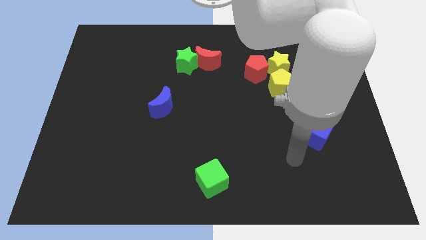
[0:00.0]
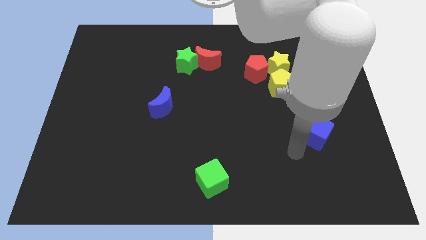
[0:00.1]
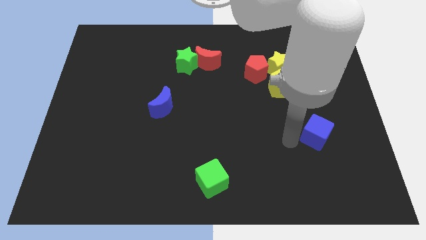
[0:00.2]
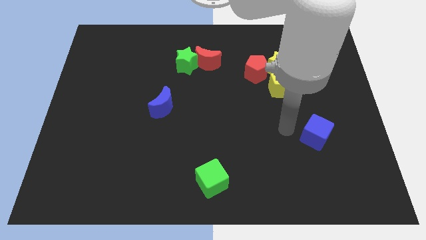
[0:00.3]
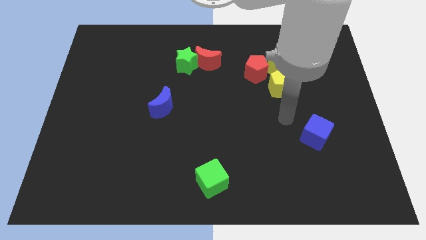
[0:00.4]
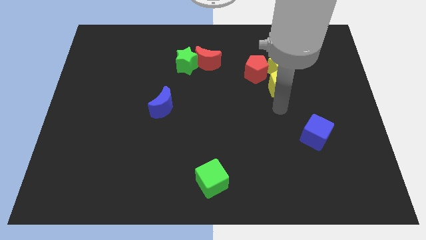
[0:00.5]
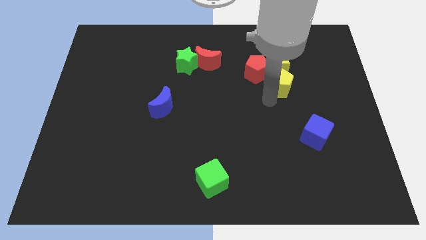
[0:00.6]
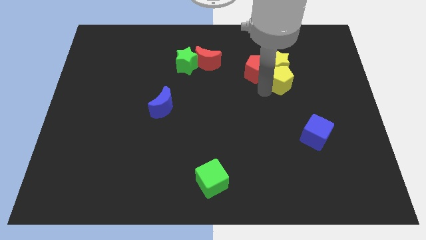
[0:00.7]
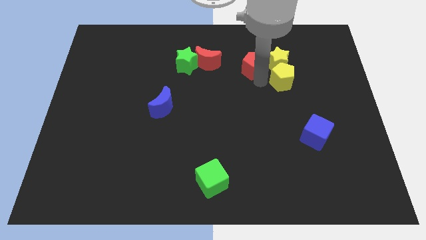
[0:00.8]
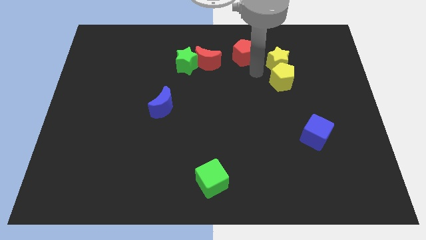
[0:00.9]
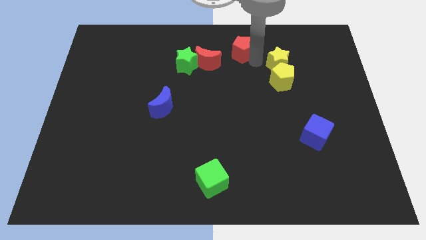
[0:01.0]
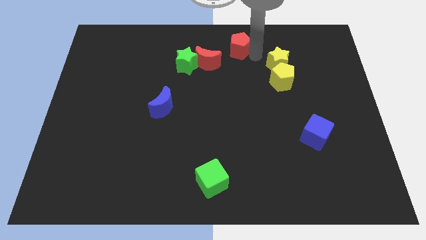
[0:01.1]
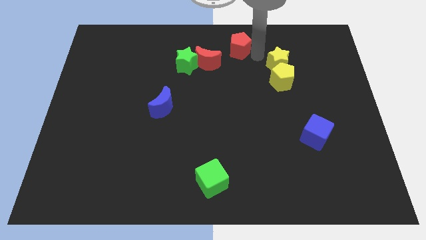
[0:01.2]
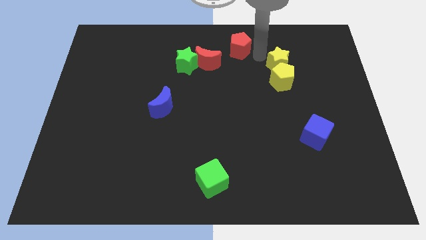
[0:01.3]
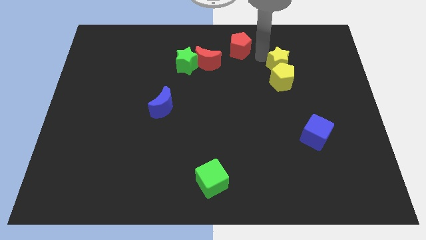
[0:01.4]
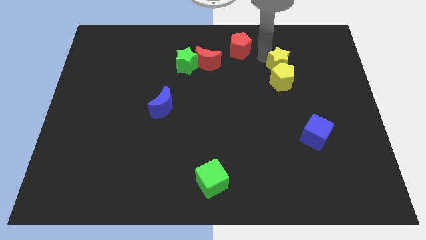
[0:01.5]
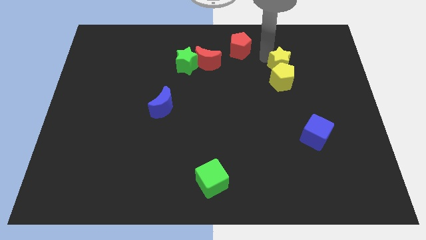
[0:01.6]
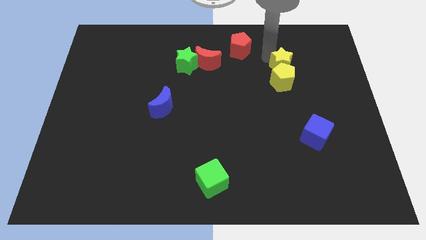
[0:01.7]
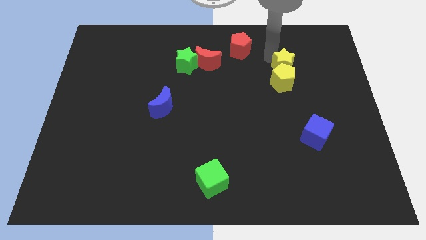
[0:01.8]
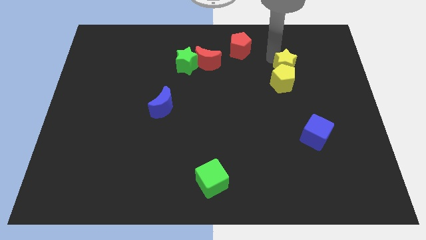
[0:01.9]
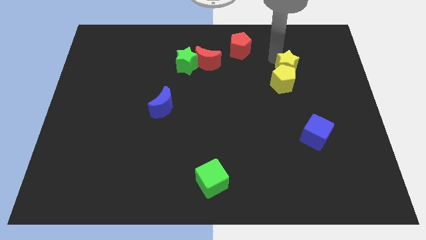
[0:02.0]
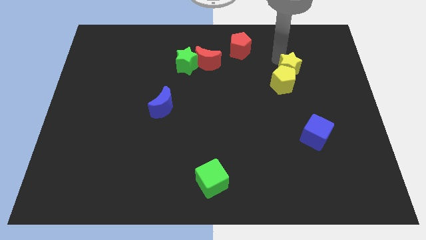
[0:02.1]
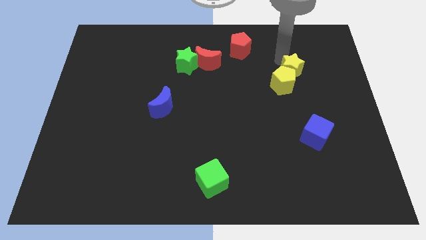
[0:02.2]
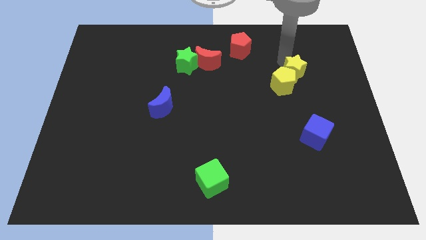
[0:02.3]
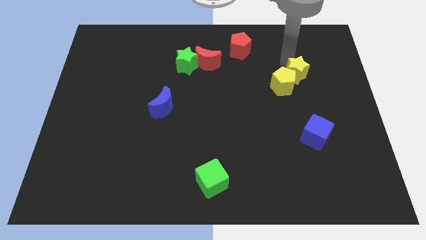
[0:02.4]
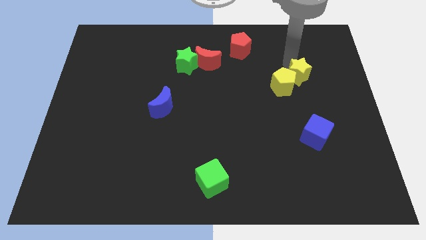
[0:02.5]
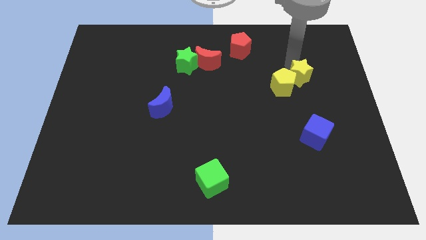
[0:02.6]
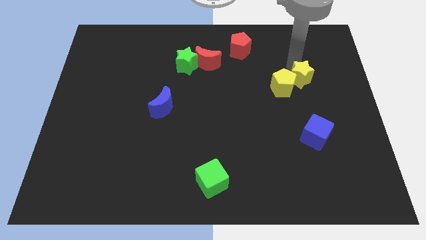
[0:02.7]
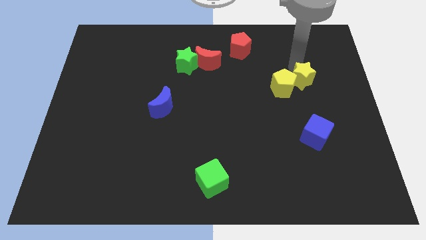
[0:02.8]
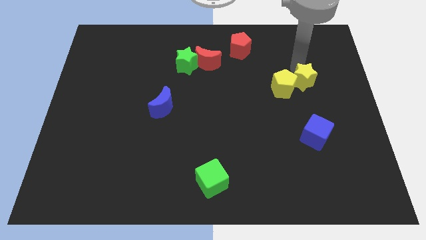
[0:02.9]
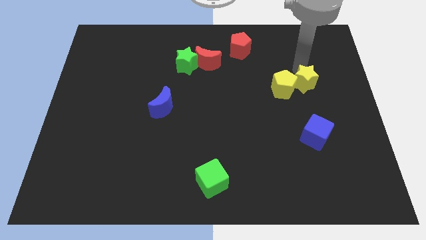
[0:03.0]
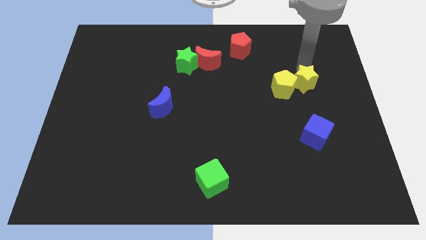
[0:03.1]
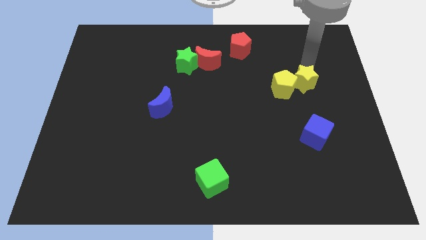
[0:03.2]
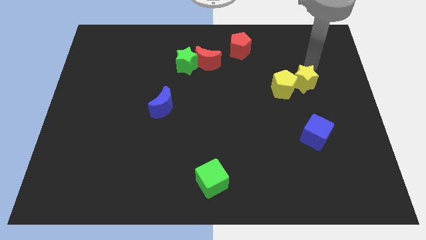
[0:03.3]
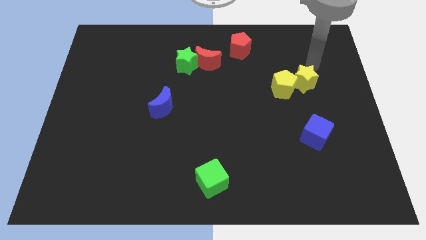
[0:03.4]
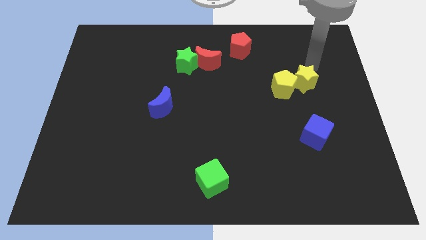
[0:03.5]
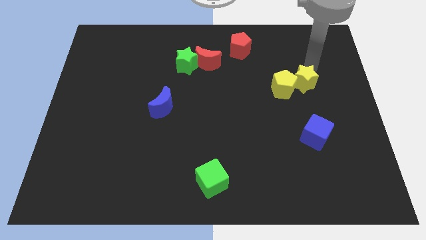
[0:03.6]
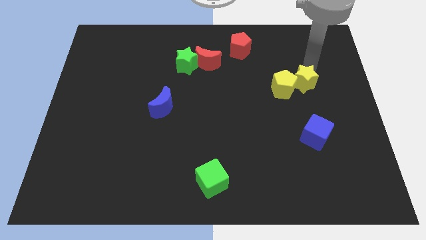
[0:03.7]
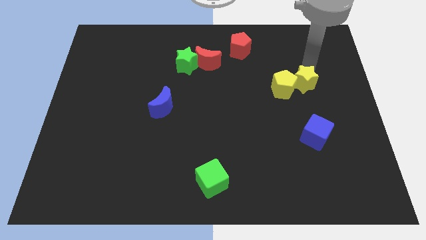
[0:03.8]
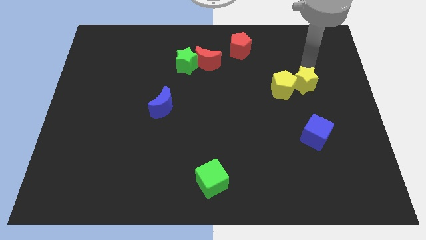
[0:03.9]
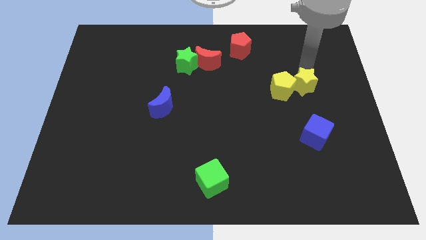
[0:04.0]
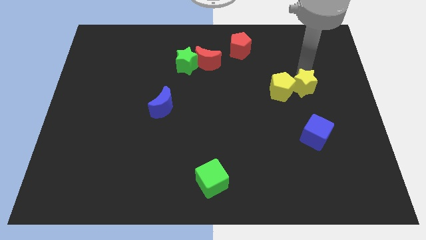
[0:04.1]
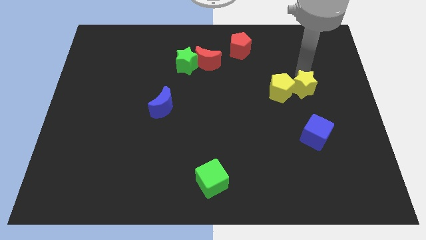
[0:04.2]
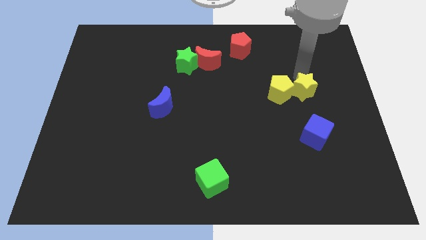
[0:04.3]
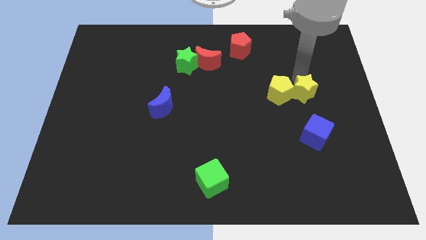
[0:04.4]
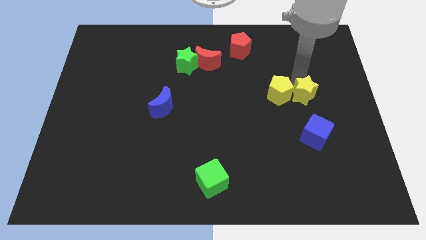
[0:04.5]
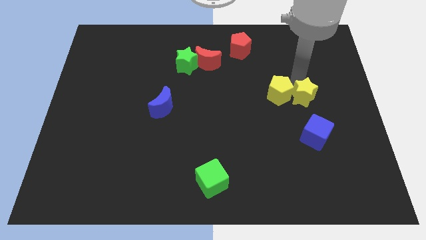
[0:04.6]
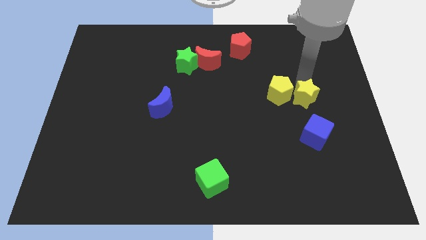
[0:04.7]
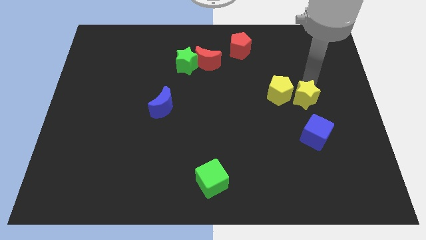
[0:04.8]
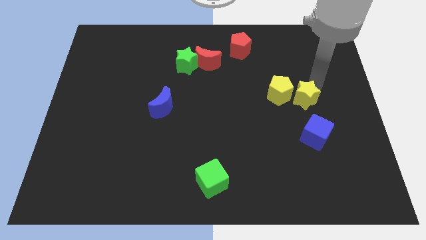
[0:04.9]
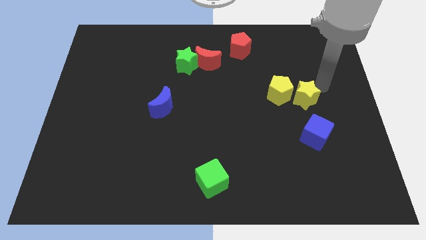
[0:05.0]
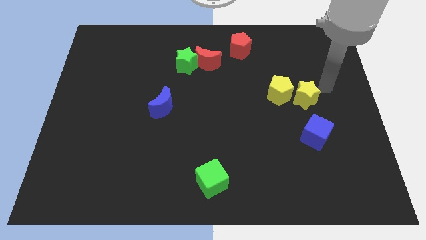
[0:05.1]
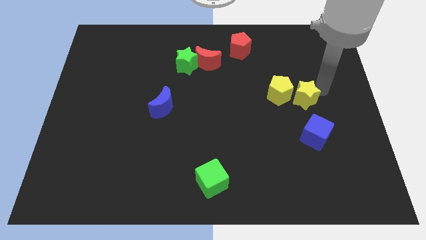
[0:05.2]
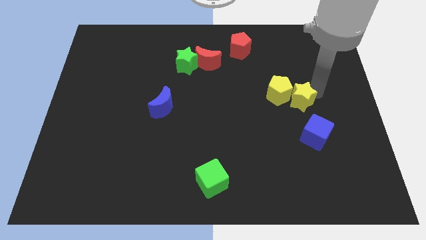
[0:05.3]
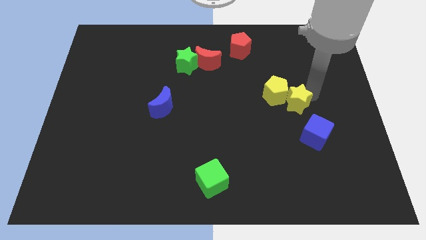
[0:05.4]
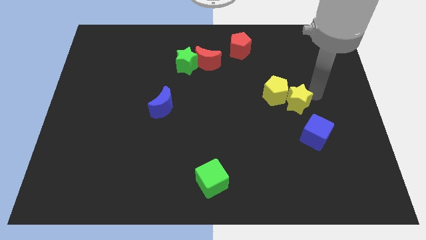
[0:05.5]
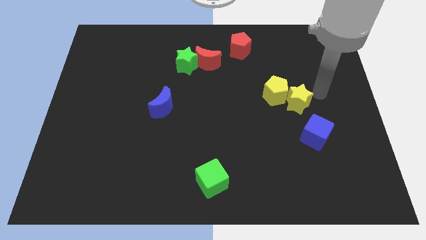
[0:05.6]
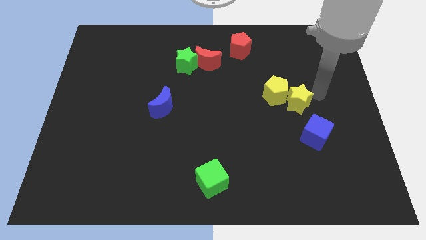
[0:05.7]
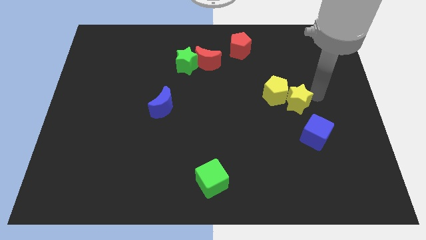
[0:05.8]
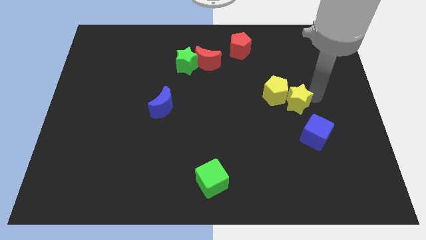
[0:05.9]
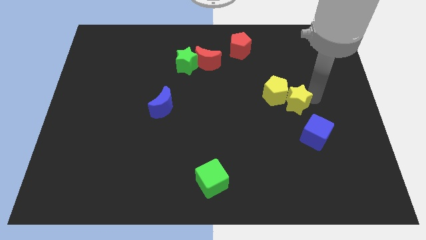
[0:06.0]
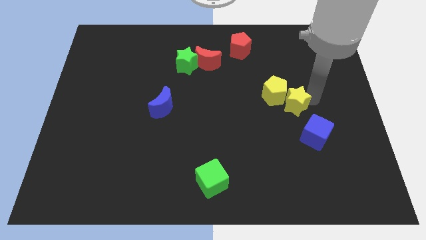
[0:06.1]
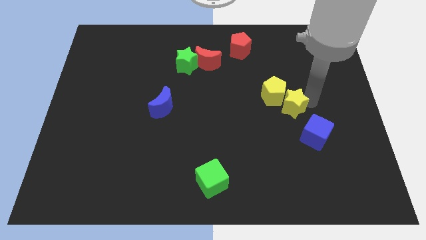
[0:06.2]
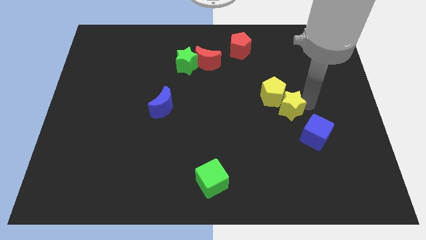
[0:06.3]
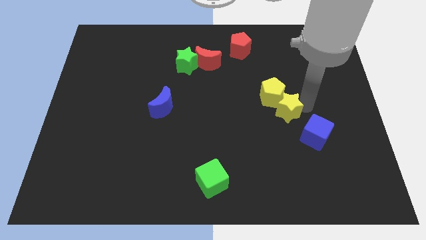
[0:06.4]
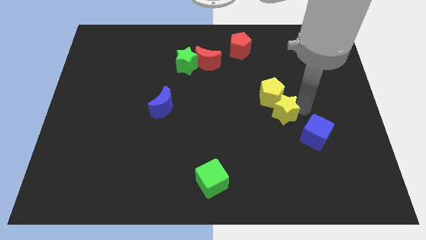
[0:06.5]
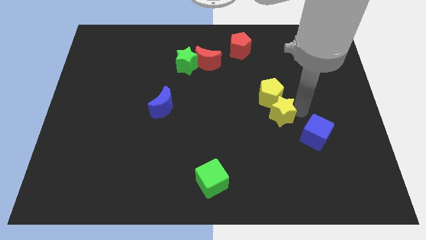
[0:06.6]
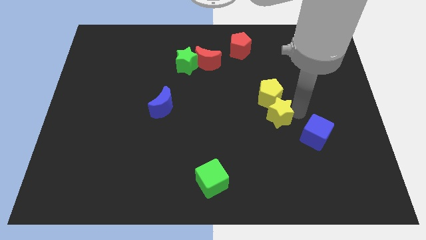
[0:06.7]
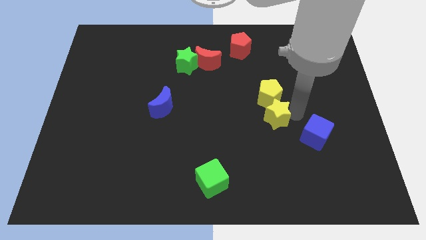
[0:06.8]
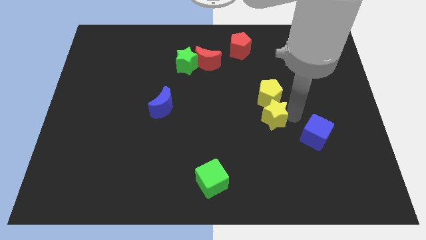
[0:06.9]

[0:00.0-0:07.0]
push the yellow star diagonally down and to the left of the yellow pentagon
